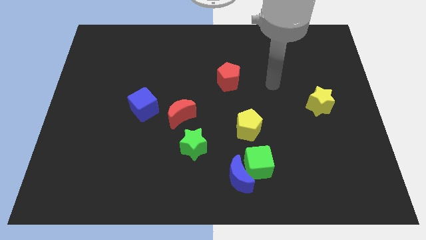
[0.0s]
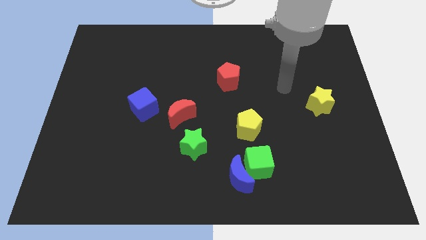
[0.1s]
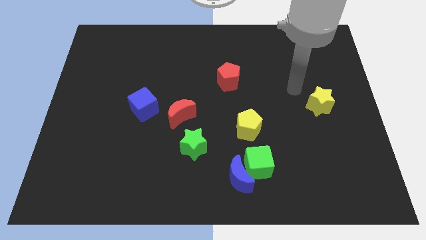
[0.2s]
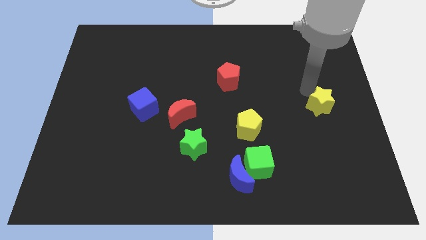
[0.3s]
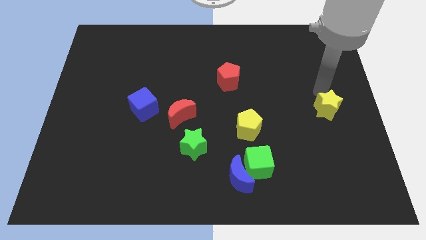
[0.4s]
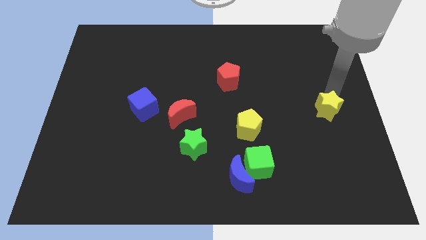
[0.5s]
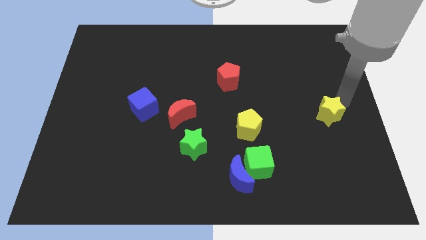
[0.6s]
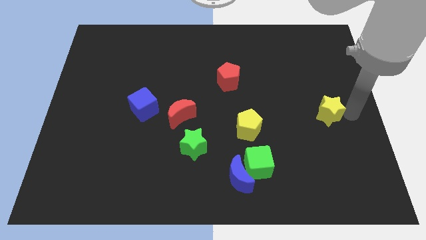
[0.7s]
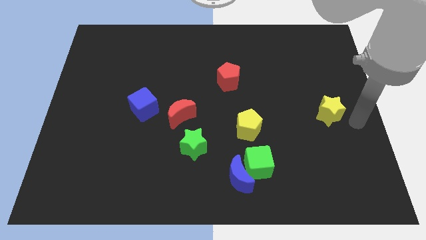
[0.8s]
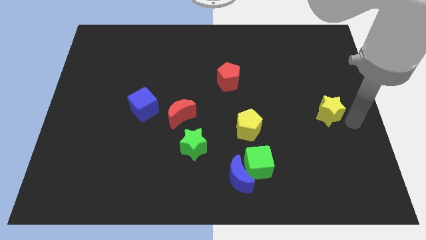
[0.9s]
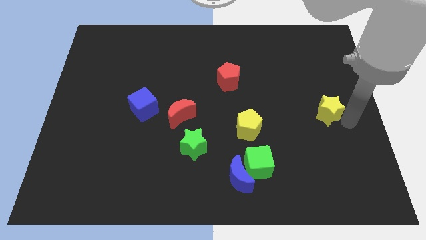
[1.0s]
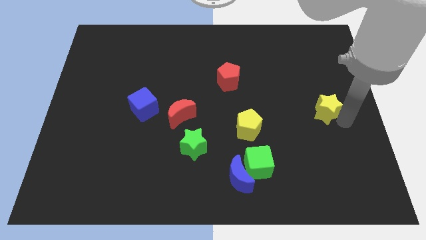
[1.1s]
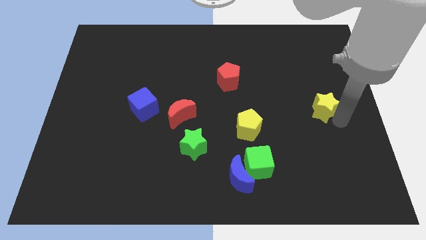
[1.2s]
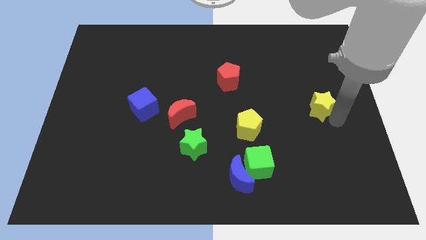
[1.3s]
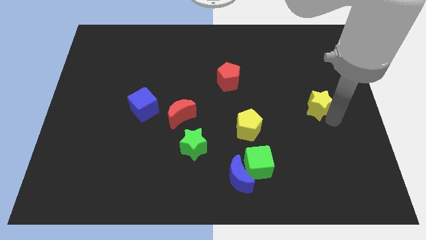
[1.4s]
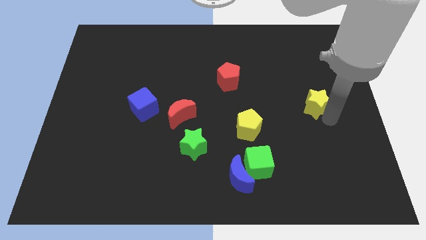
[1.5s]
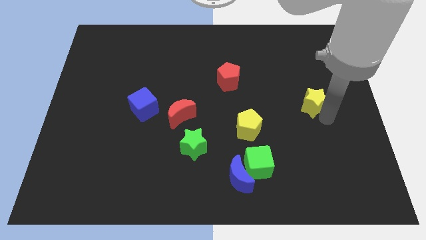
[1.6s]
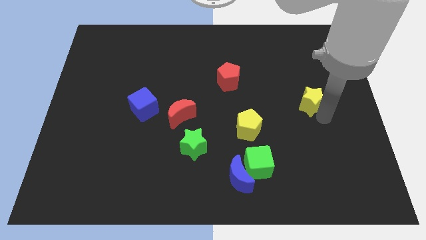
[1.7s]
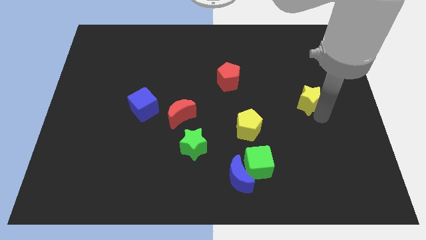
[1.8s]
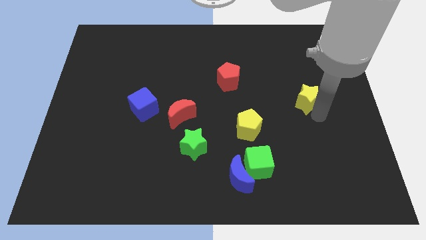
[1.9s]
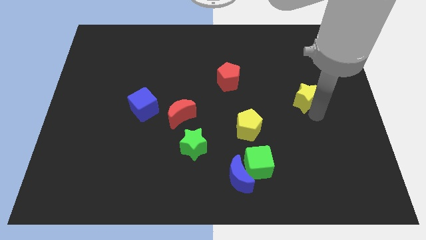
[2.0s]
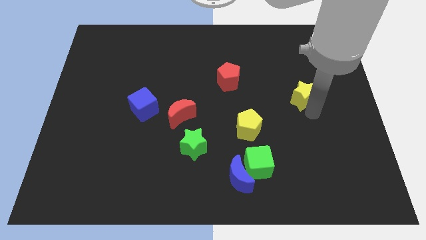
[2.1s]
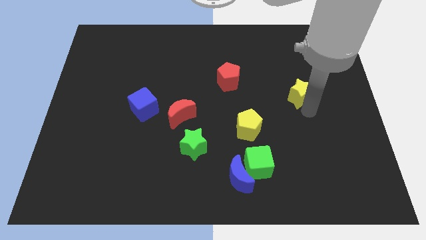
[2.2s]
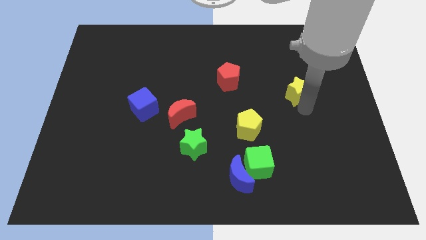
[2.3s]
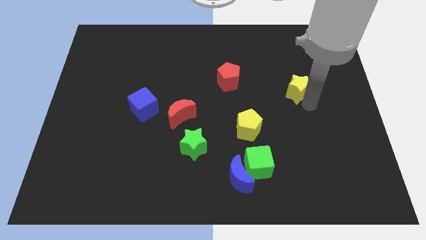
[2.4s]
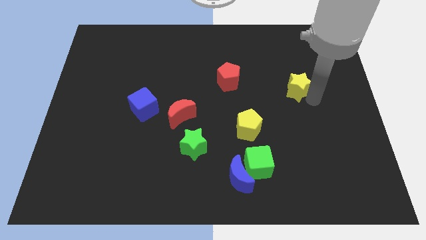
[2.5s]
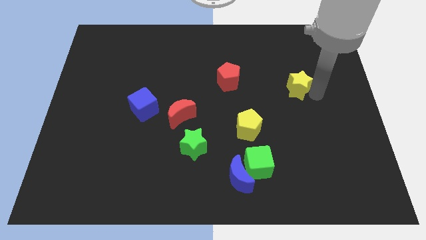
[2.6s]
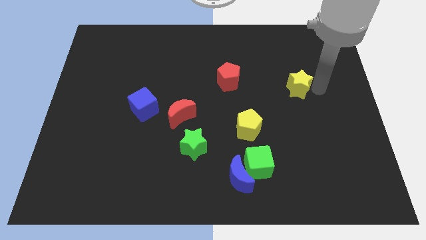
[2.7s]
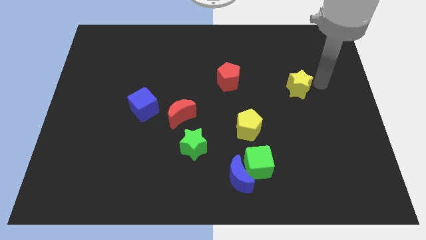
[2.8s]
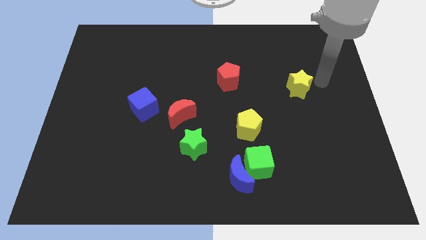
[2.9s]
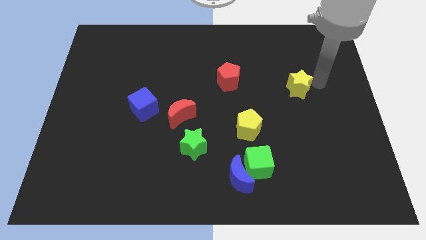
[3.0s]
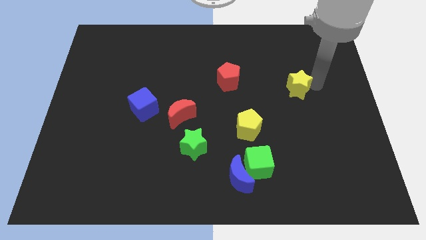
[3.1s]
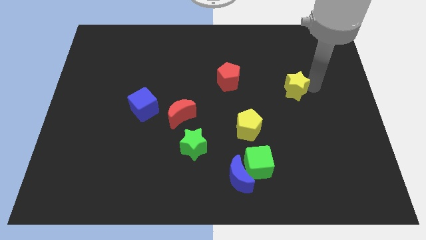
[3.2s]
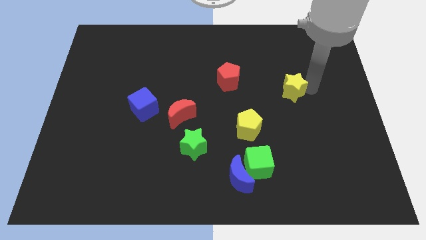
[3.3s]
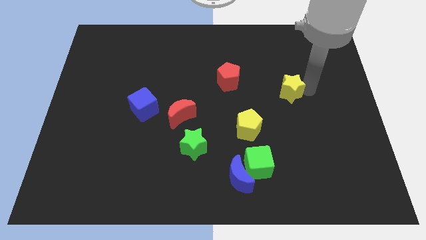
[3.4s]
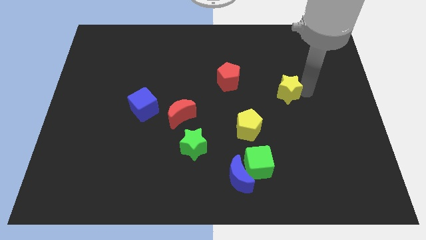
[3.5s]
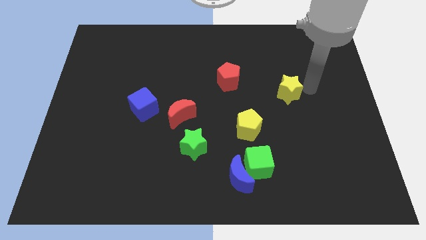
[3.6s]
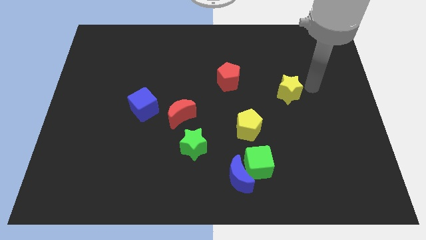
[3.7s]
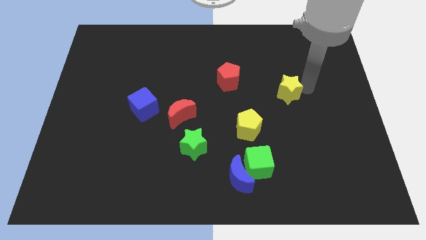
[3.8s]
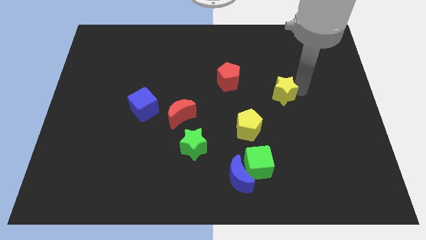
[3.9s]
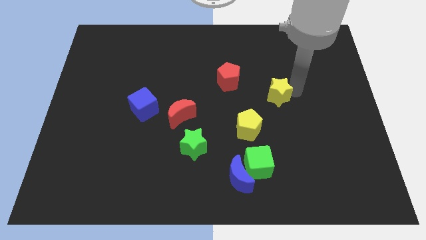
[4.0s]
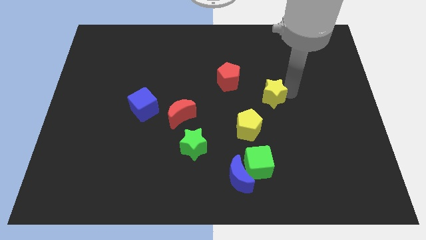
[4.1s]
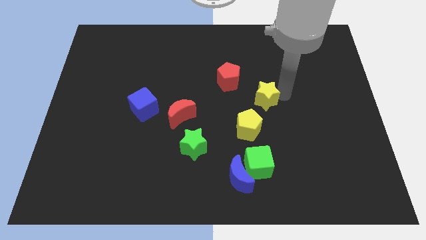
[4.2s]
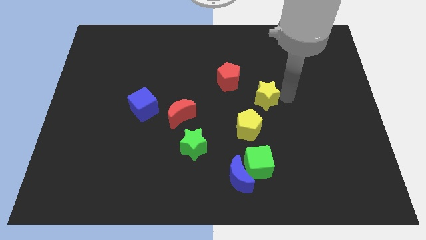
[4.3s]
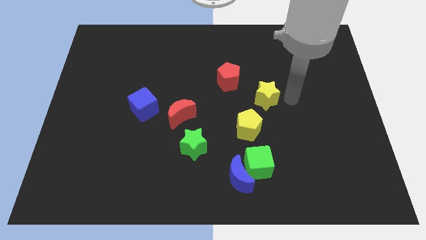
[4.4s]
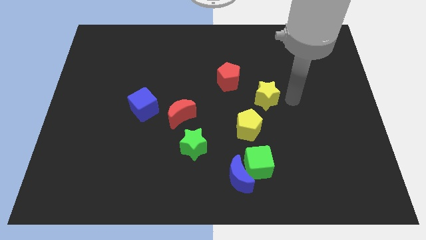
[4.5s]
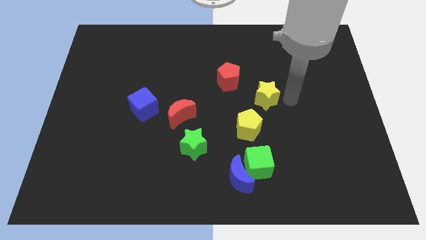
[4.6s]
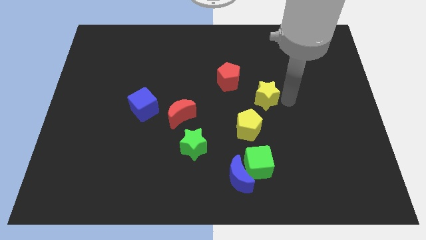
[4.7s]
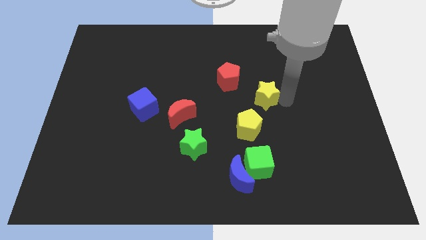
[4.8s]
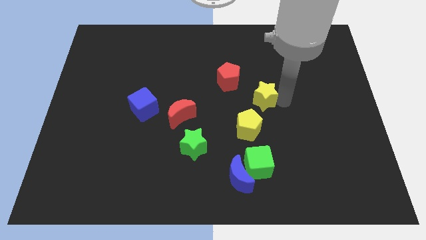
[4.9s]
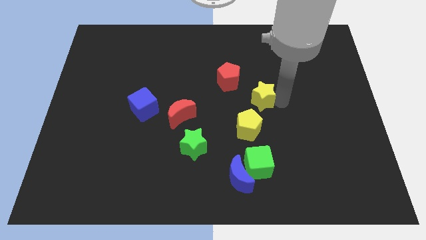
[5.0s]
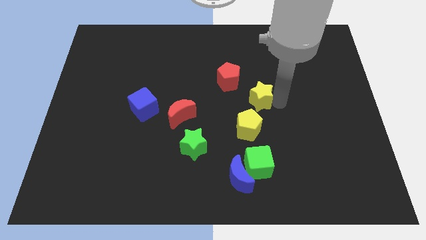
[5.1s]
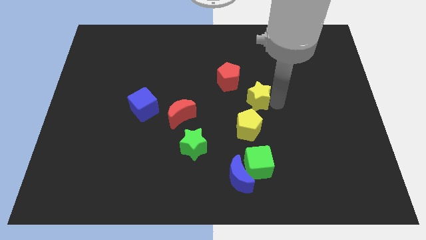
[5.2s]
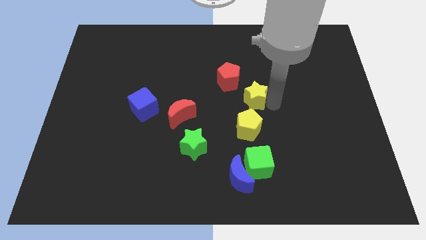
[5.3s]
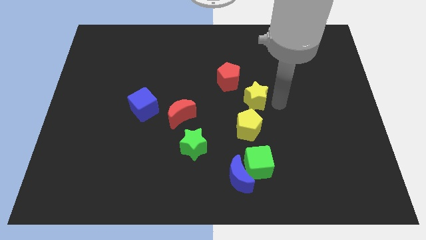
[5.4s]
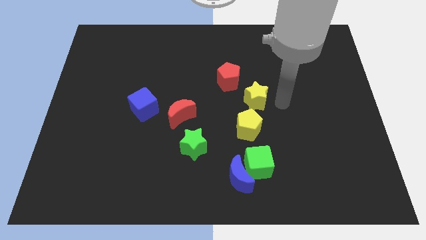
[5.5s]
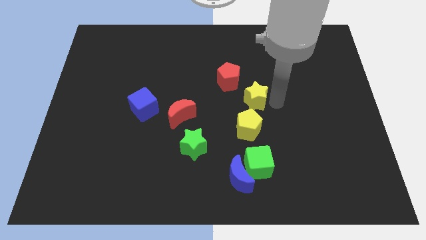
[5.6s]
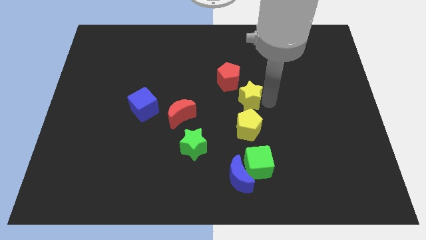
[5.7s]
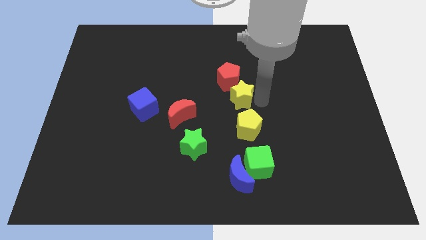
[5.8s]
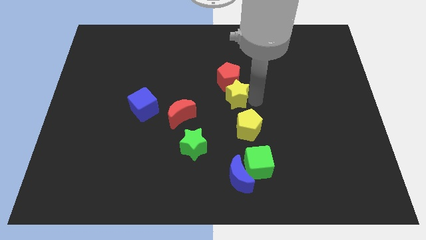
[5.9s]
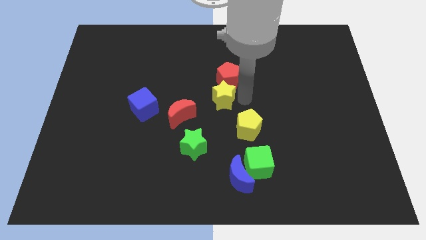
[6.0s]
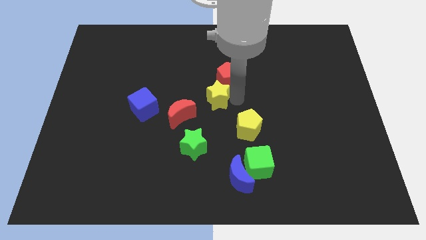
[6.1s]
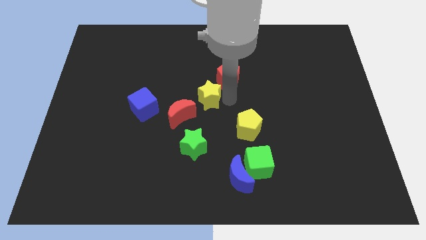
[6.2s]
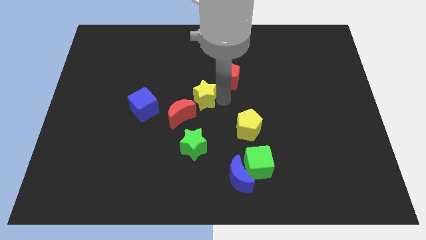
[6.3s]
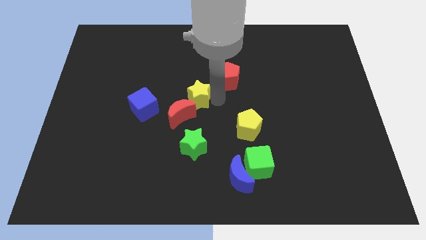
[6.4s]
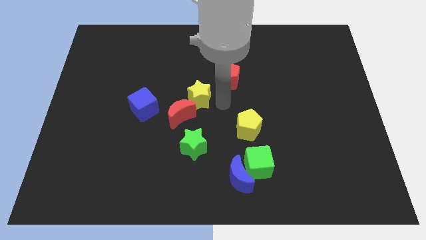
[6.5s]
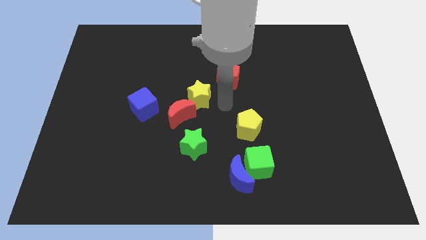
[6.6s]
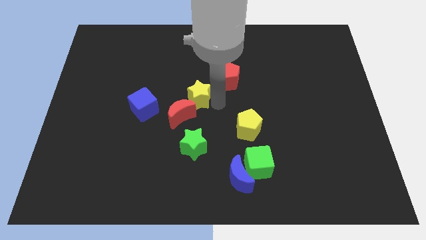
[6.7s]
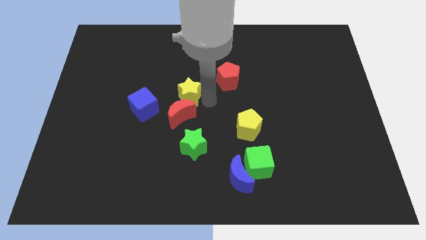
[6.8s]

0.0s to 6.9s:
move the yellow star to the top right side of the blue cube

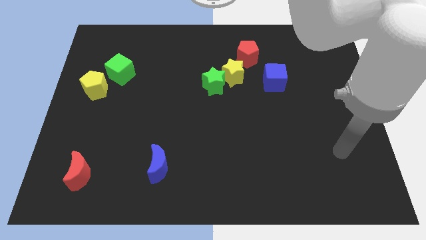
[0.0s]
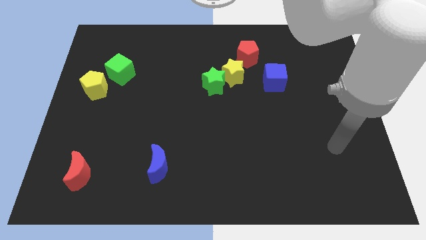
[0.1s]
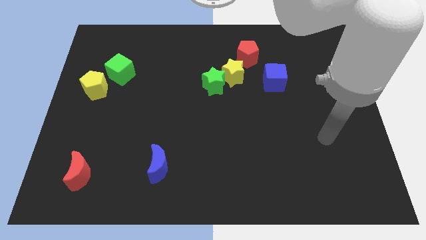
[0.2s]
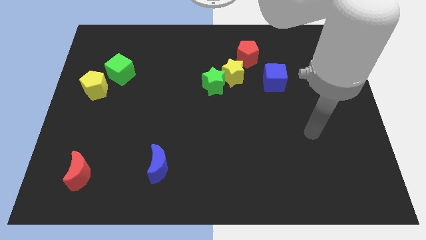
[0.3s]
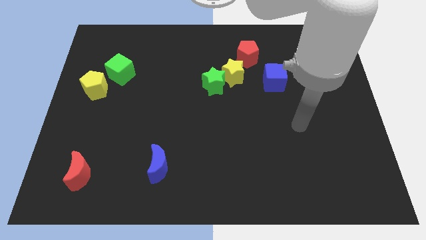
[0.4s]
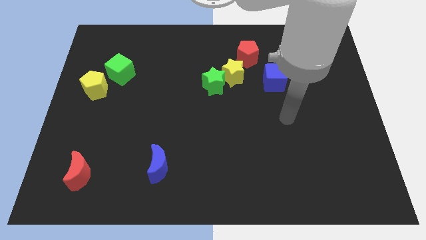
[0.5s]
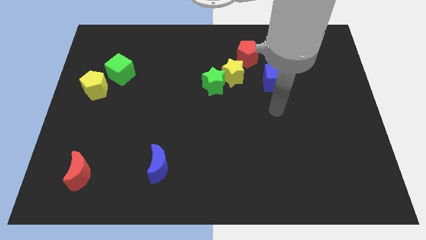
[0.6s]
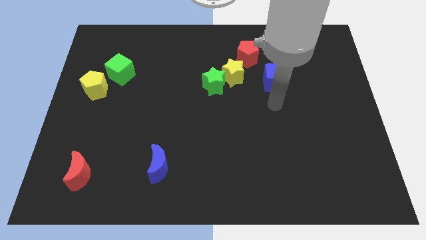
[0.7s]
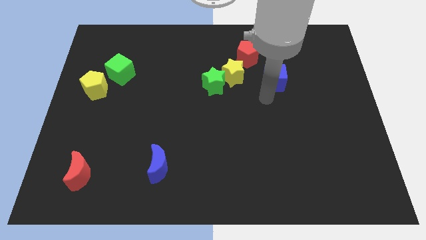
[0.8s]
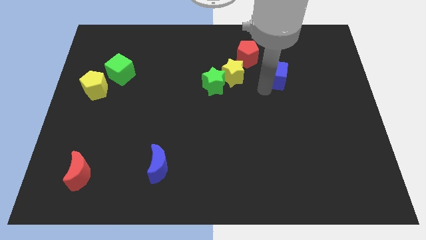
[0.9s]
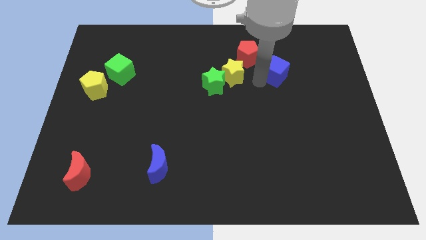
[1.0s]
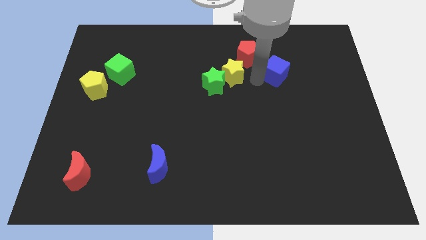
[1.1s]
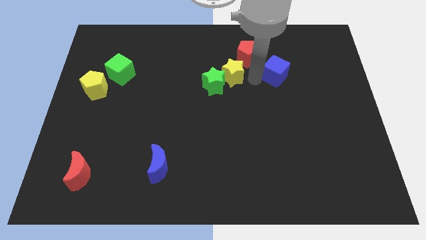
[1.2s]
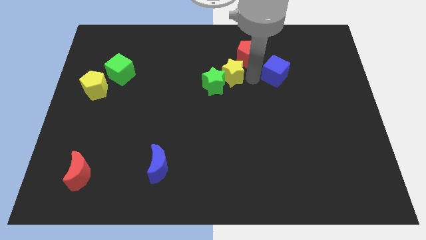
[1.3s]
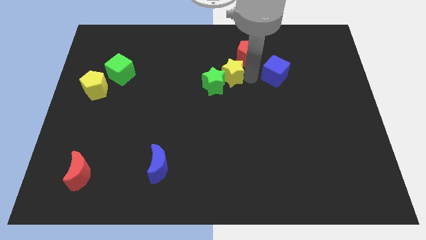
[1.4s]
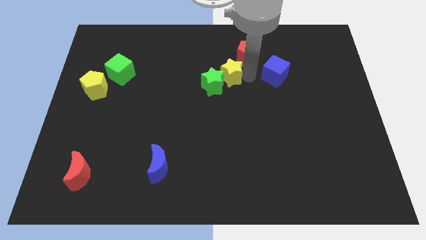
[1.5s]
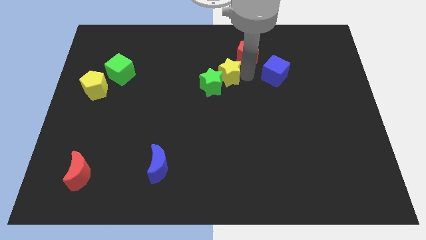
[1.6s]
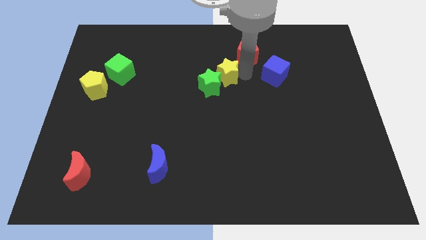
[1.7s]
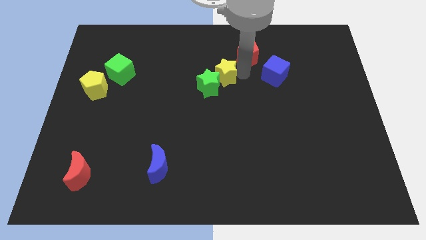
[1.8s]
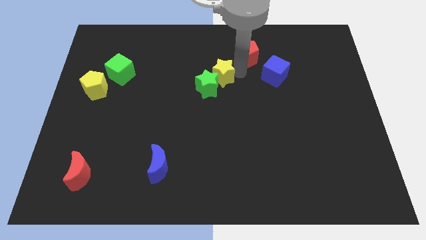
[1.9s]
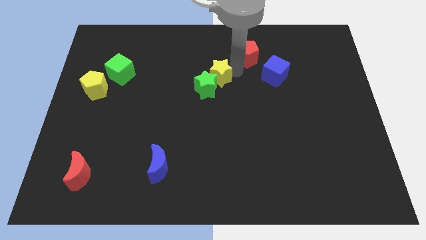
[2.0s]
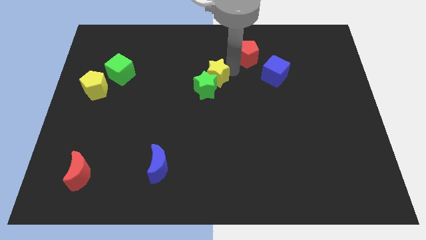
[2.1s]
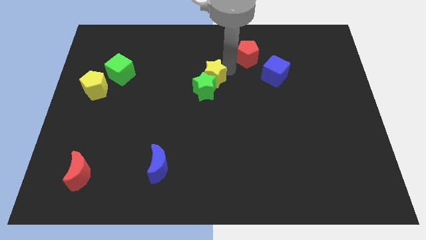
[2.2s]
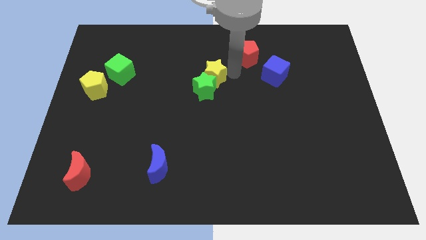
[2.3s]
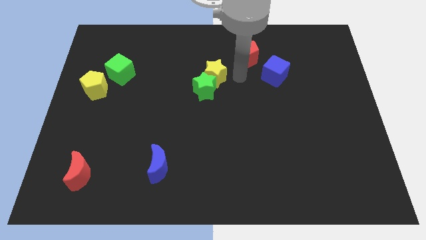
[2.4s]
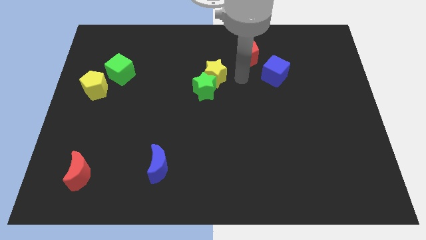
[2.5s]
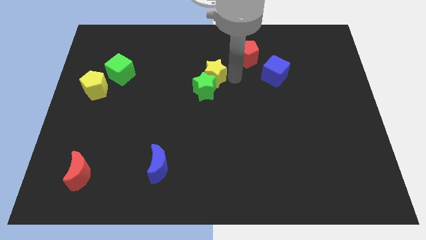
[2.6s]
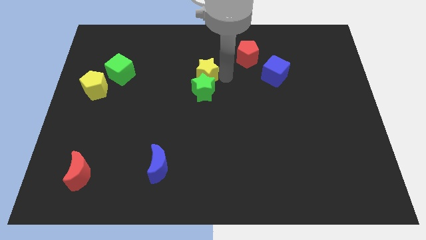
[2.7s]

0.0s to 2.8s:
move the yellow star to the top left side of the green star
